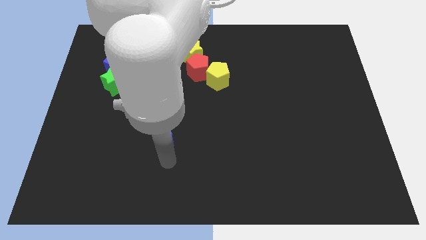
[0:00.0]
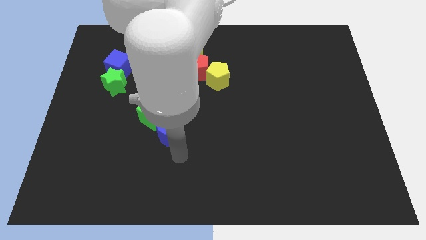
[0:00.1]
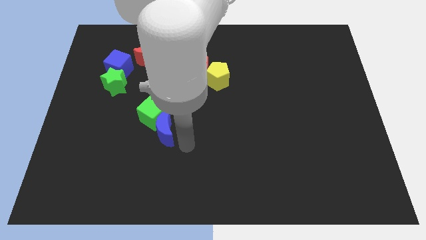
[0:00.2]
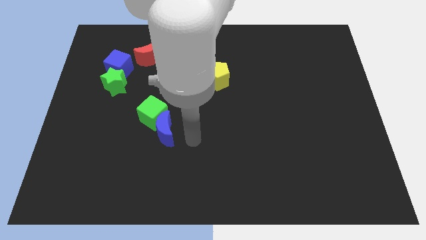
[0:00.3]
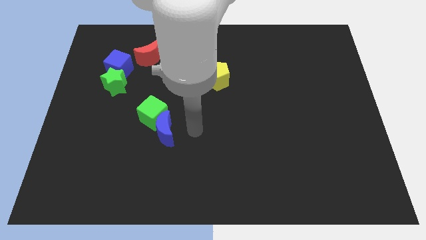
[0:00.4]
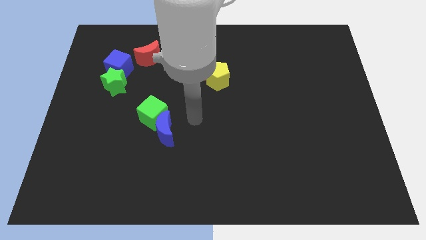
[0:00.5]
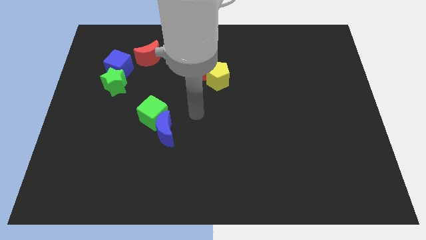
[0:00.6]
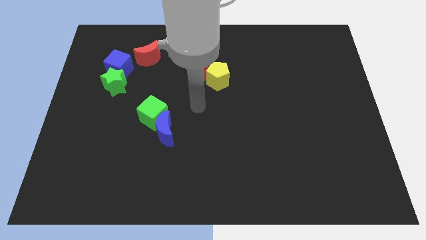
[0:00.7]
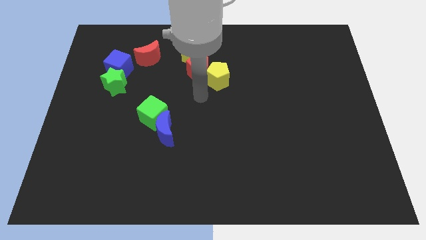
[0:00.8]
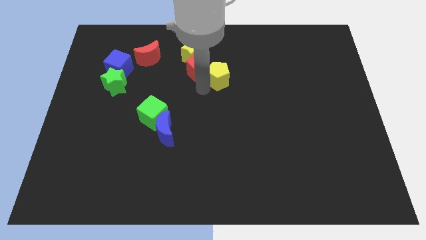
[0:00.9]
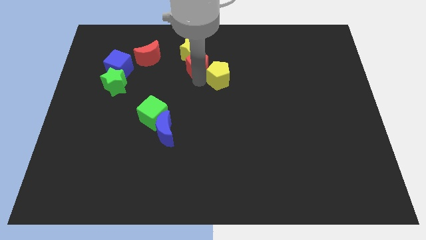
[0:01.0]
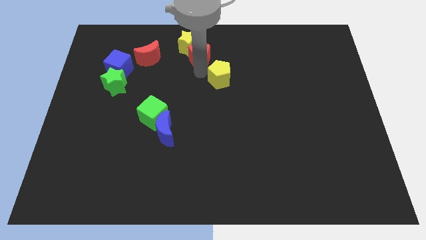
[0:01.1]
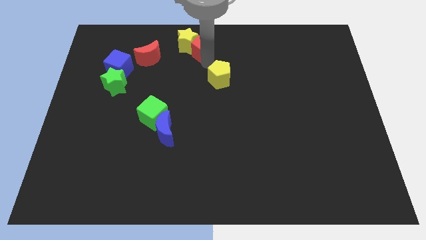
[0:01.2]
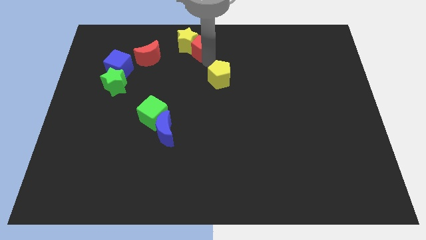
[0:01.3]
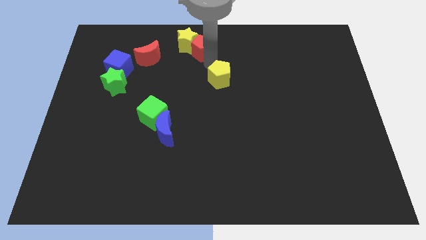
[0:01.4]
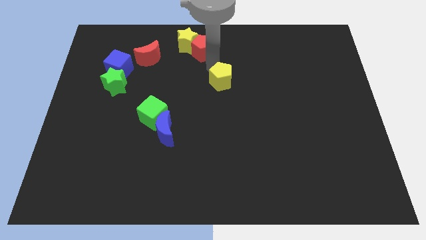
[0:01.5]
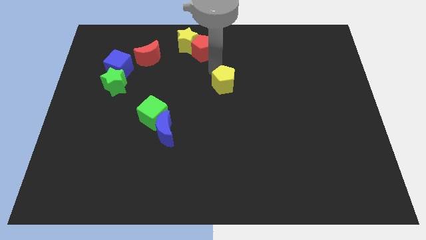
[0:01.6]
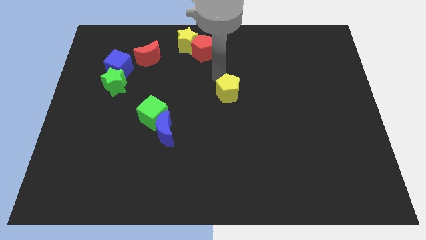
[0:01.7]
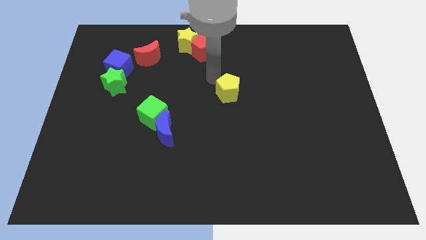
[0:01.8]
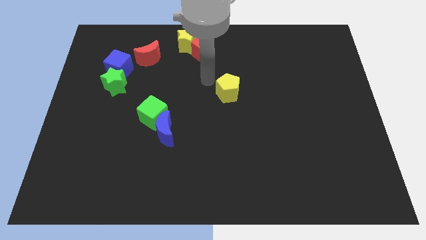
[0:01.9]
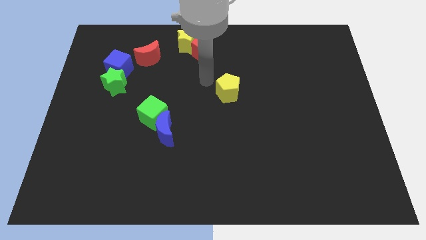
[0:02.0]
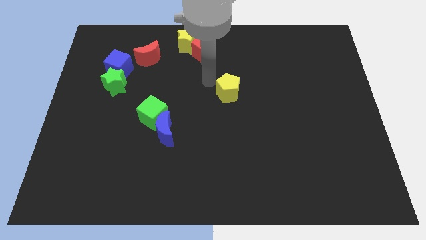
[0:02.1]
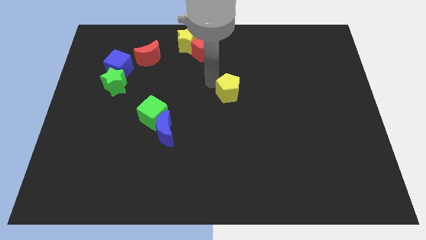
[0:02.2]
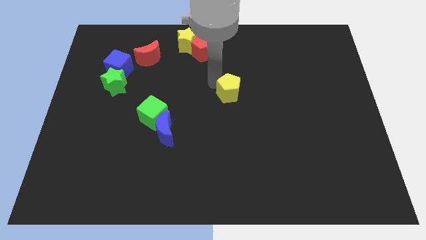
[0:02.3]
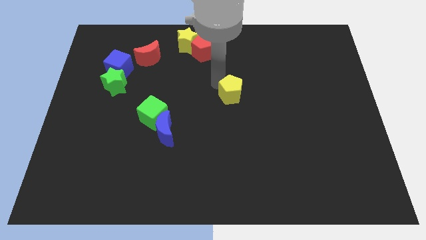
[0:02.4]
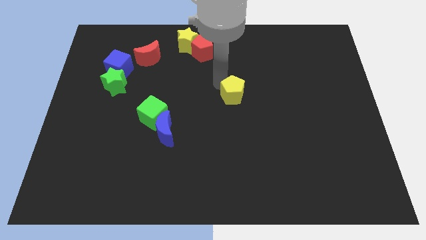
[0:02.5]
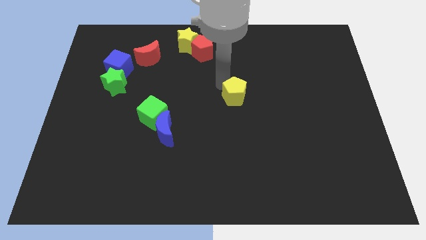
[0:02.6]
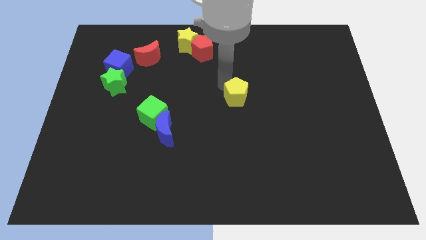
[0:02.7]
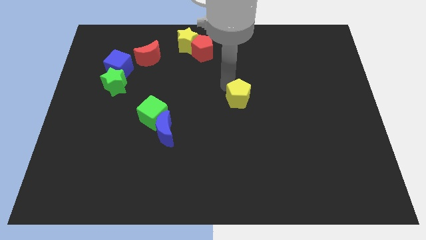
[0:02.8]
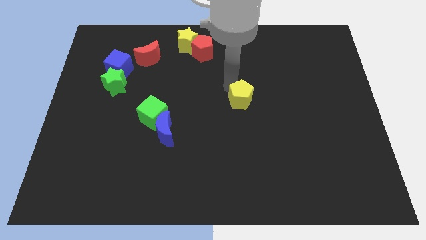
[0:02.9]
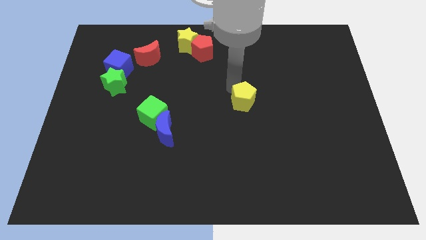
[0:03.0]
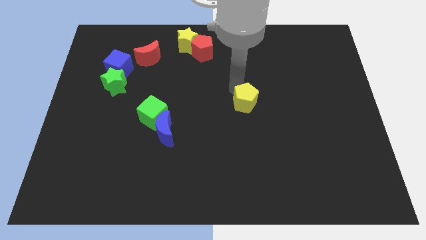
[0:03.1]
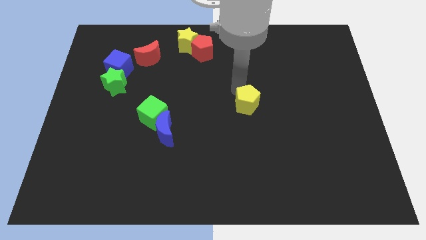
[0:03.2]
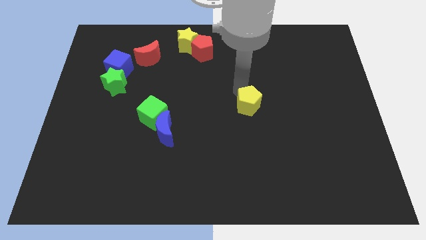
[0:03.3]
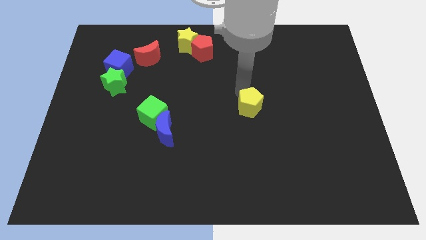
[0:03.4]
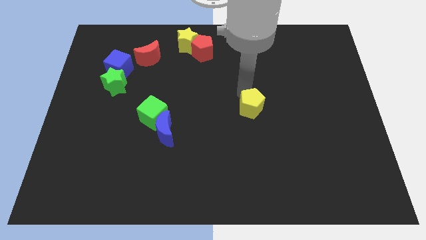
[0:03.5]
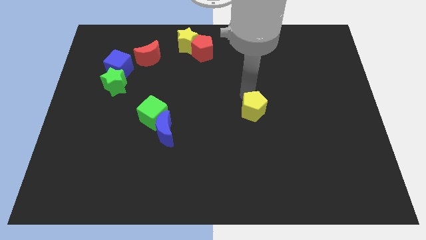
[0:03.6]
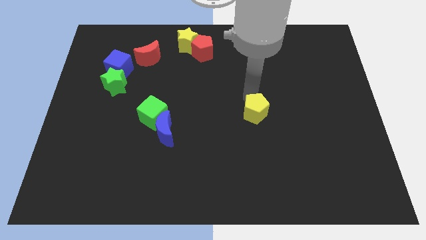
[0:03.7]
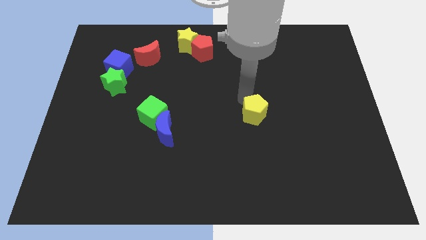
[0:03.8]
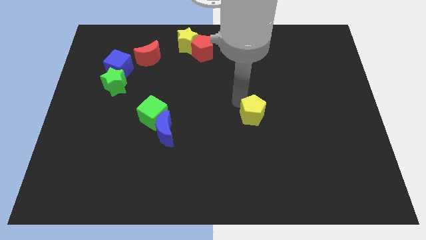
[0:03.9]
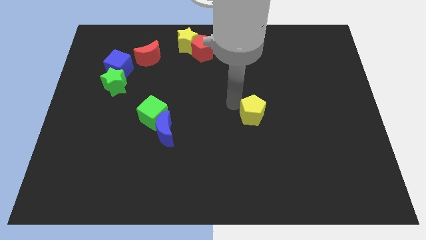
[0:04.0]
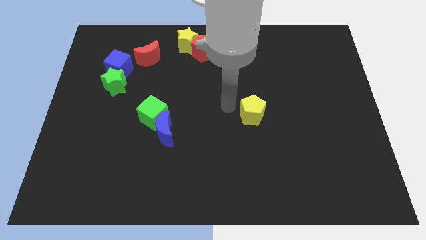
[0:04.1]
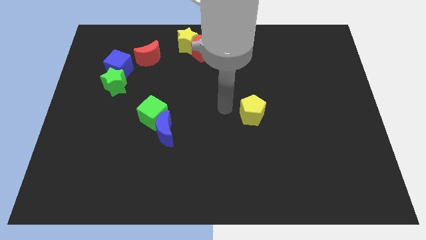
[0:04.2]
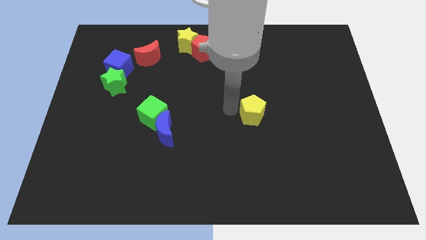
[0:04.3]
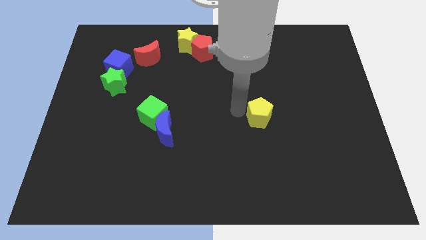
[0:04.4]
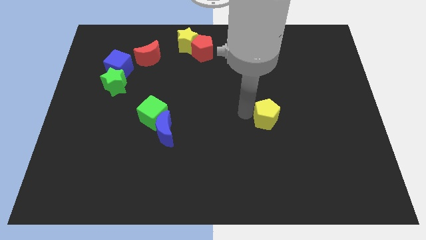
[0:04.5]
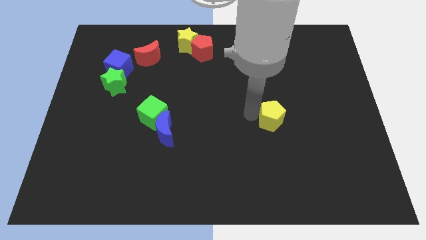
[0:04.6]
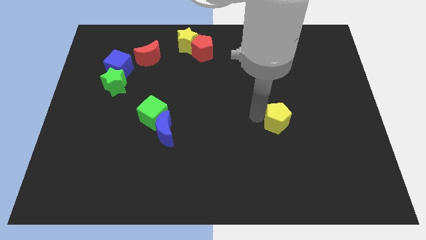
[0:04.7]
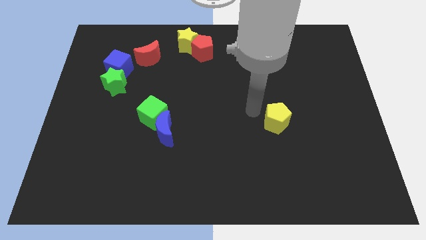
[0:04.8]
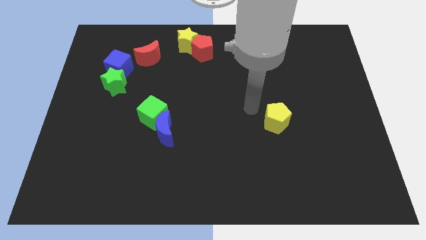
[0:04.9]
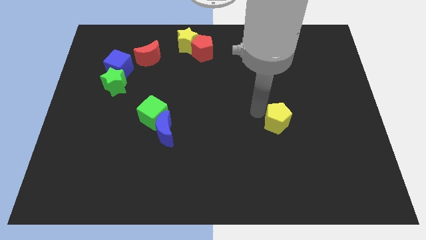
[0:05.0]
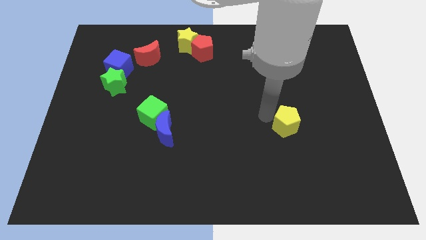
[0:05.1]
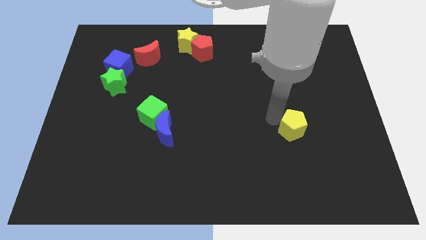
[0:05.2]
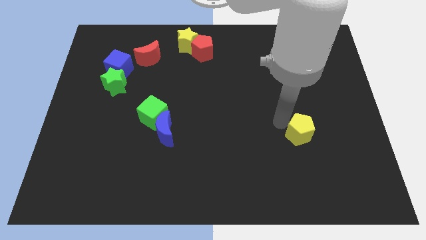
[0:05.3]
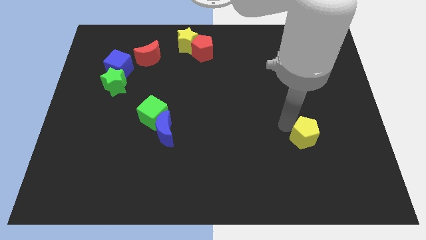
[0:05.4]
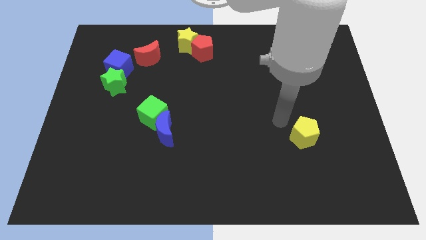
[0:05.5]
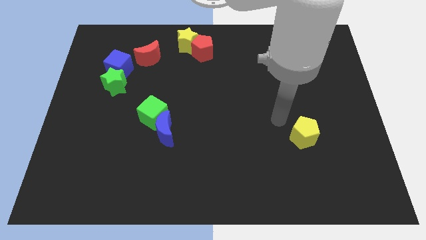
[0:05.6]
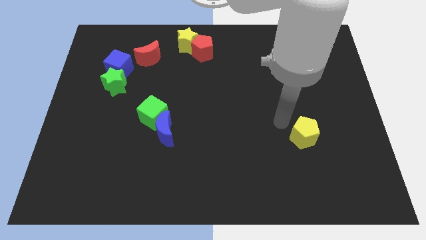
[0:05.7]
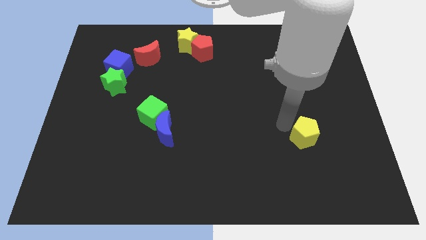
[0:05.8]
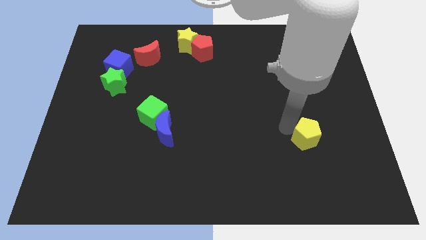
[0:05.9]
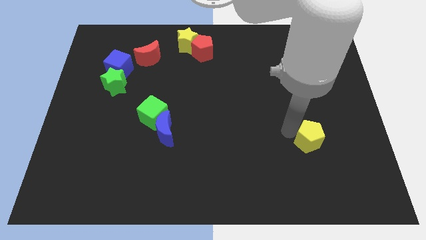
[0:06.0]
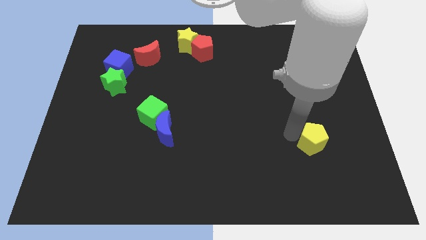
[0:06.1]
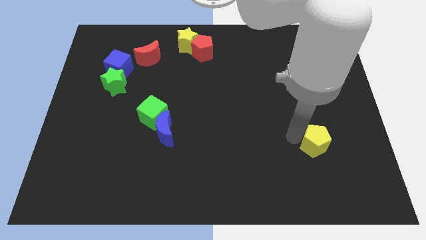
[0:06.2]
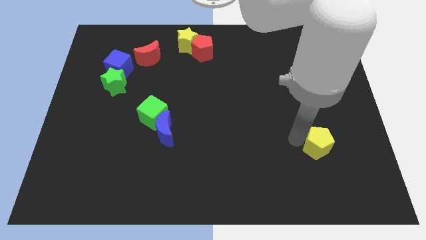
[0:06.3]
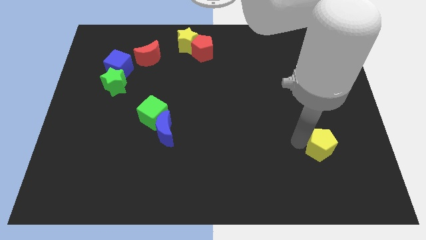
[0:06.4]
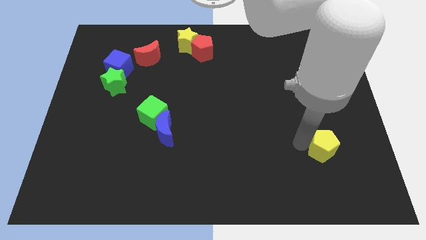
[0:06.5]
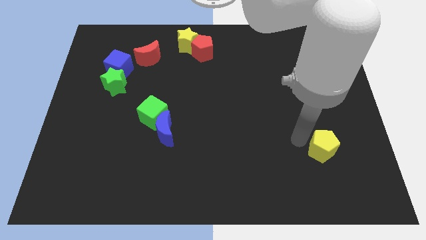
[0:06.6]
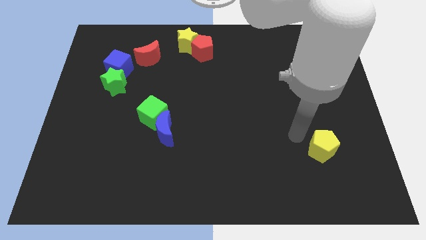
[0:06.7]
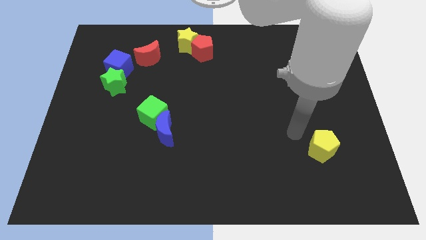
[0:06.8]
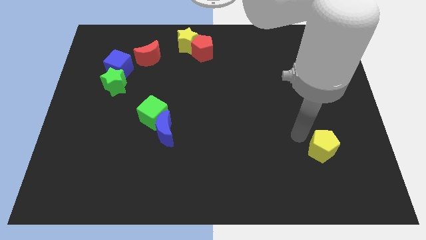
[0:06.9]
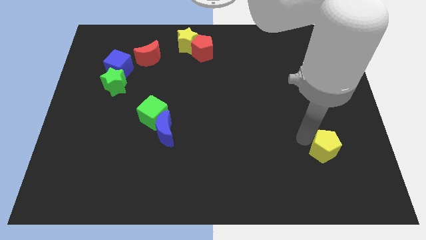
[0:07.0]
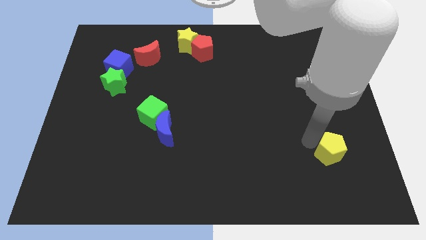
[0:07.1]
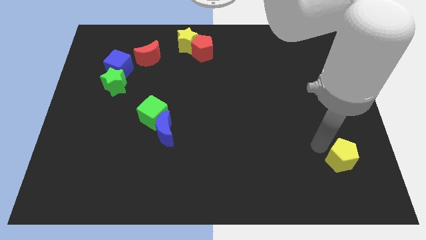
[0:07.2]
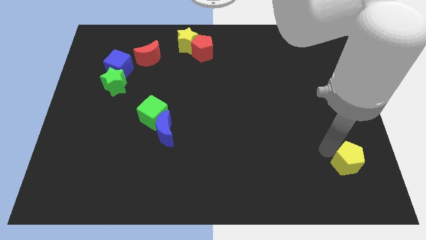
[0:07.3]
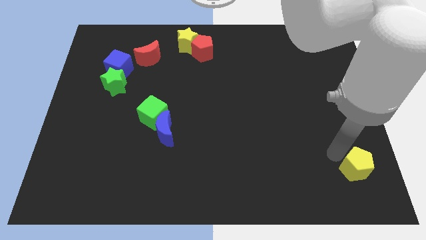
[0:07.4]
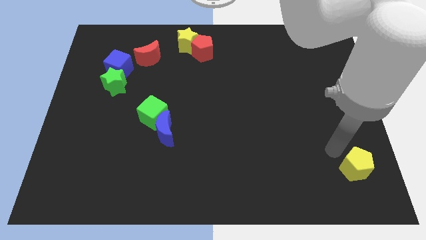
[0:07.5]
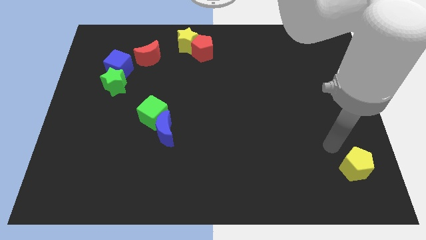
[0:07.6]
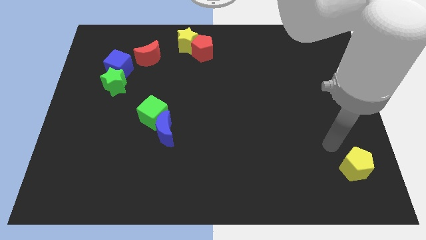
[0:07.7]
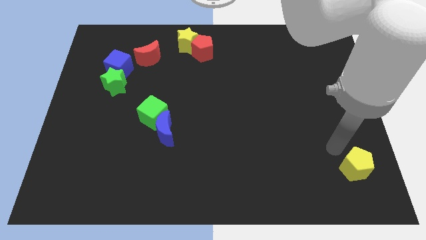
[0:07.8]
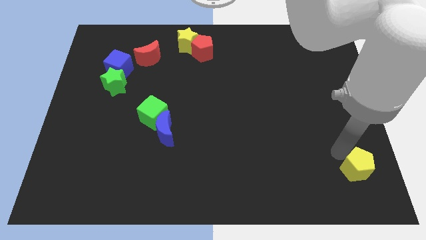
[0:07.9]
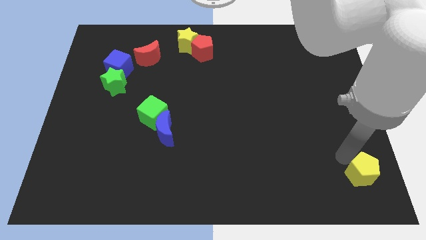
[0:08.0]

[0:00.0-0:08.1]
put the yellow pentagon to the lower right corner
